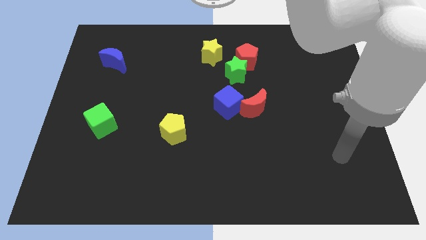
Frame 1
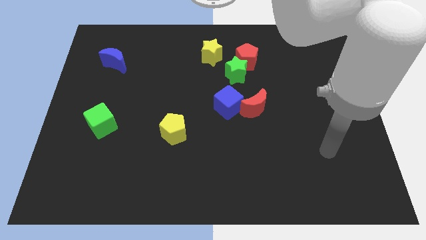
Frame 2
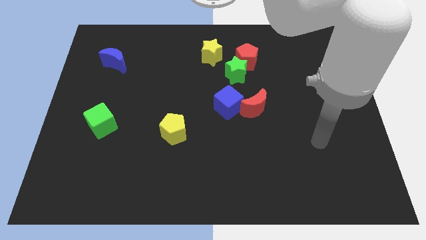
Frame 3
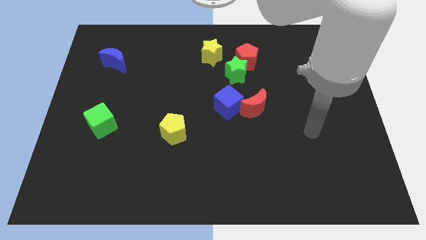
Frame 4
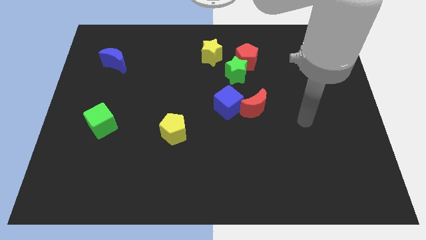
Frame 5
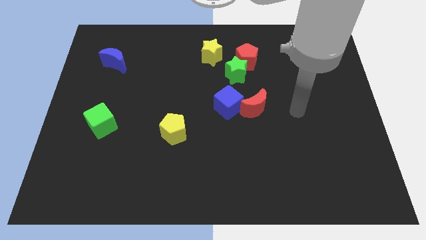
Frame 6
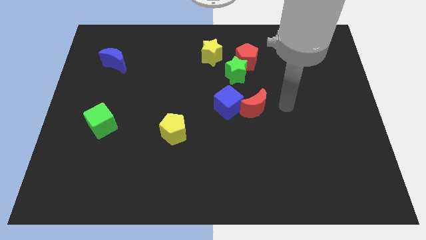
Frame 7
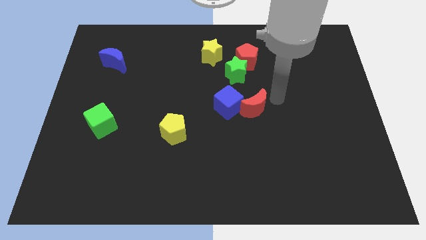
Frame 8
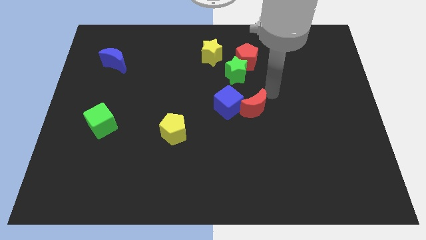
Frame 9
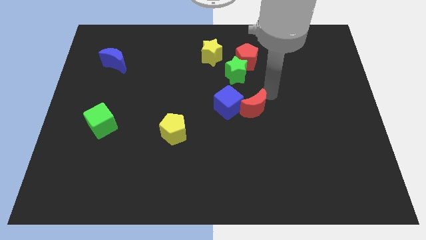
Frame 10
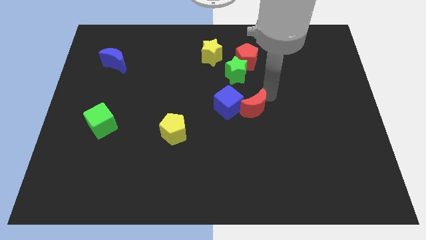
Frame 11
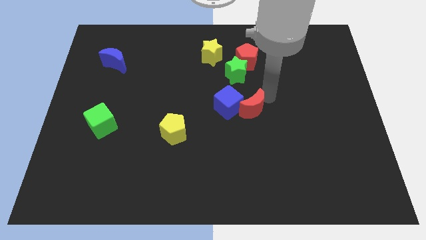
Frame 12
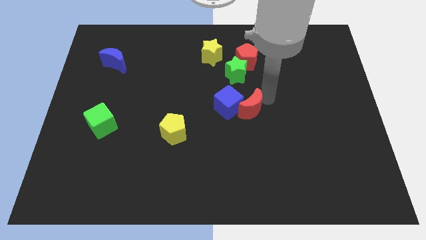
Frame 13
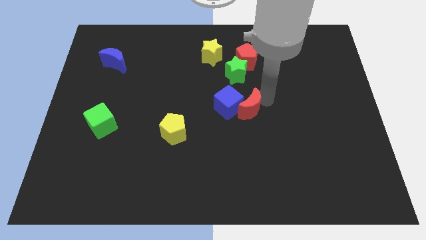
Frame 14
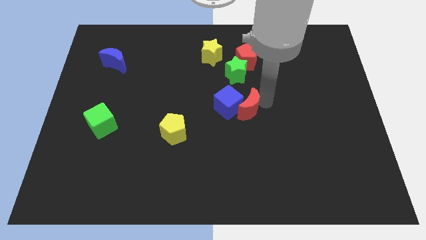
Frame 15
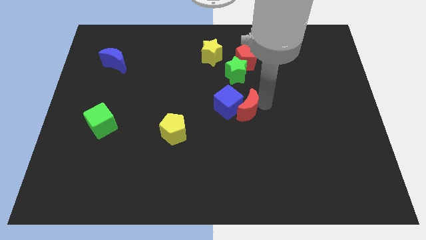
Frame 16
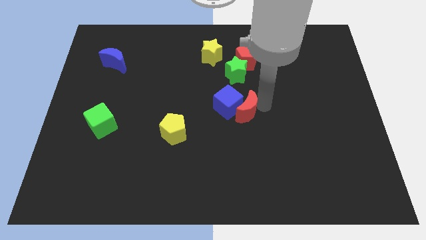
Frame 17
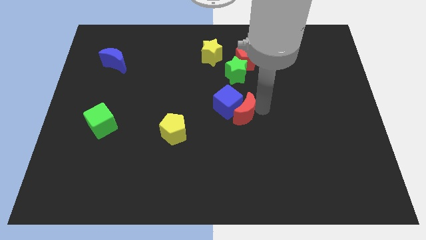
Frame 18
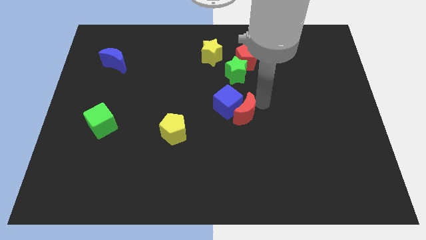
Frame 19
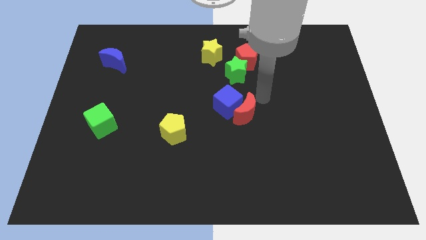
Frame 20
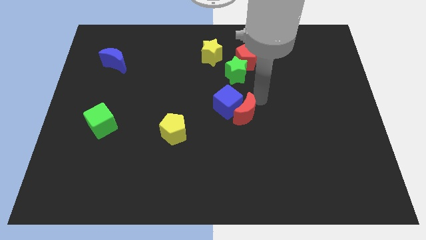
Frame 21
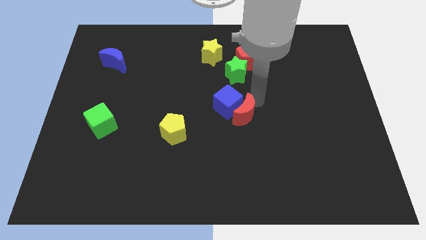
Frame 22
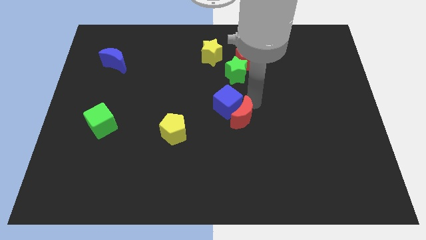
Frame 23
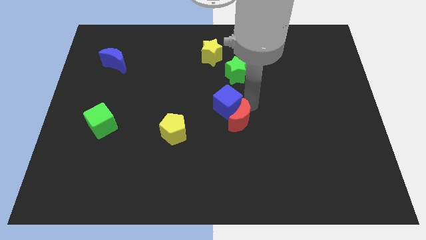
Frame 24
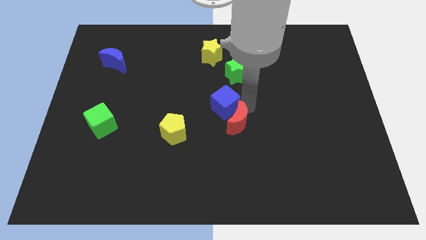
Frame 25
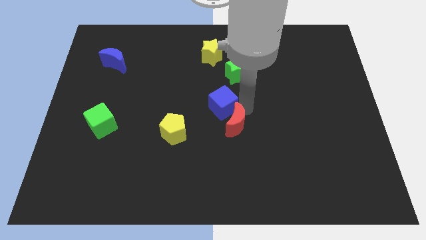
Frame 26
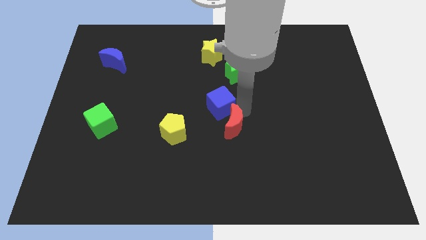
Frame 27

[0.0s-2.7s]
push the red moon somewhat down and then to the left

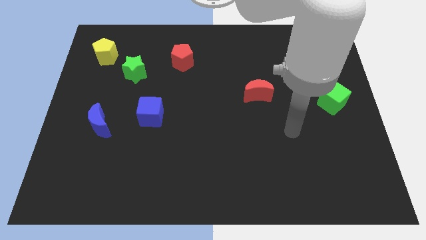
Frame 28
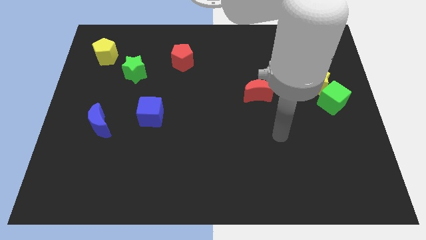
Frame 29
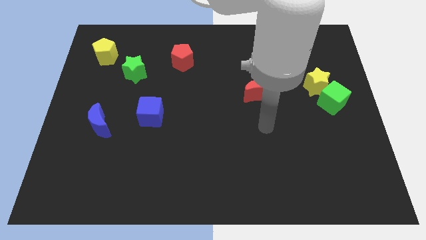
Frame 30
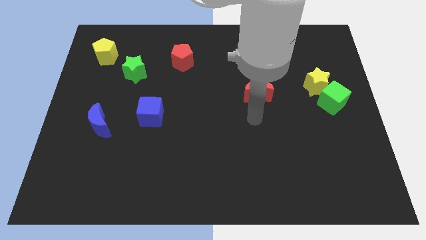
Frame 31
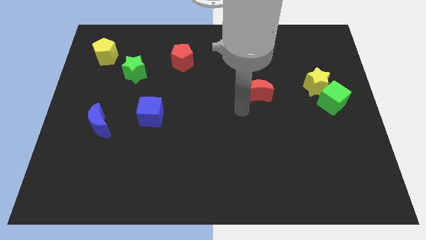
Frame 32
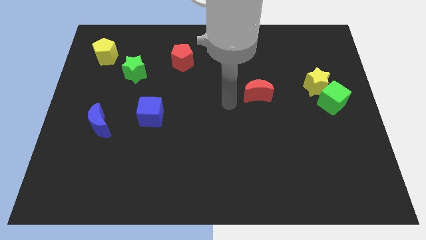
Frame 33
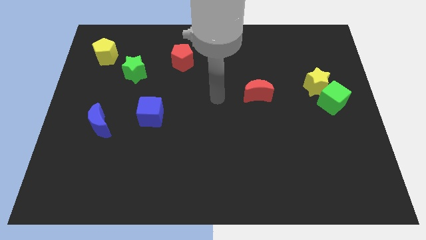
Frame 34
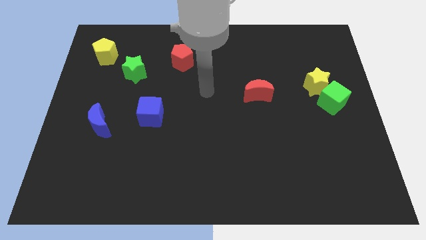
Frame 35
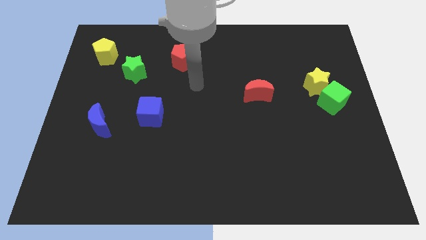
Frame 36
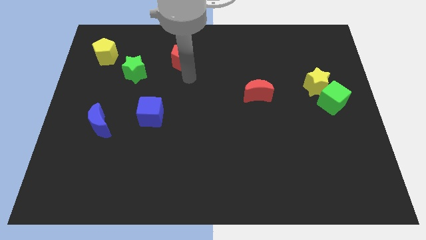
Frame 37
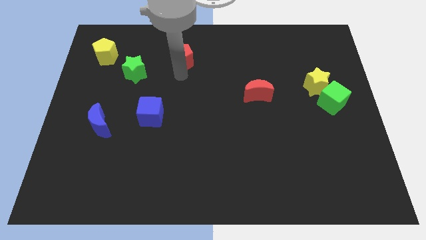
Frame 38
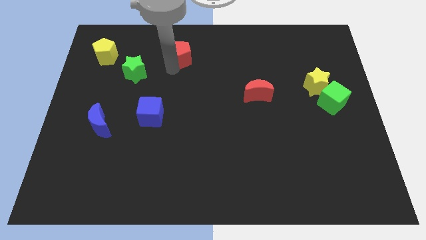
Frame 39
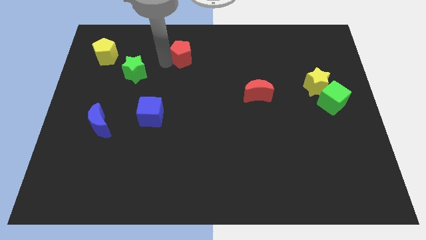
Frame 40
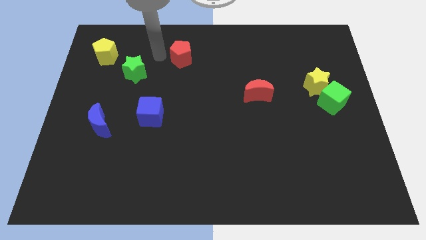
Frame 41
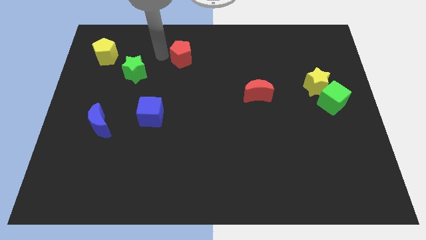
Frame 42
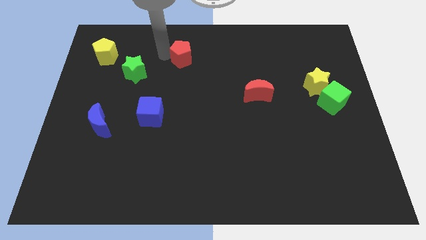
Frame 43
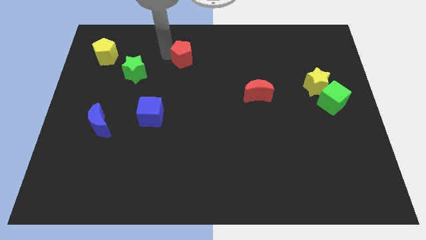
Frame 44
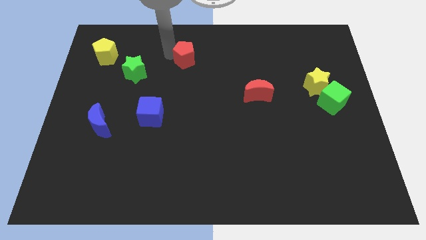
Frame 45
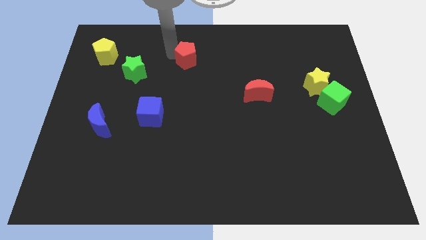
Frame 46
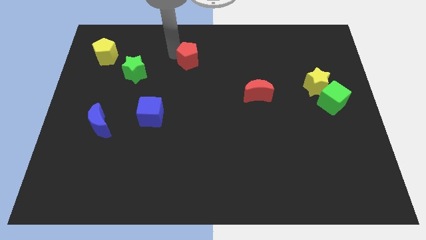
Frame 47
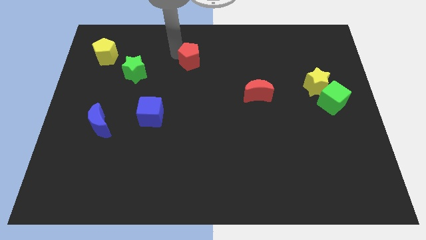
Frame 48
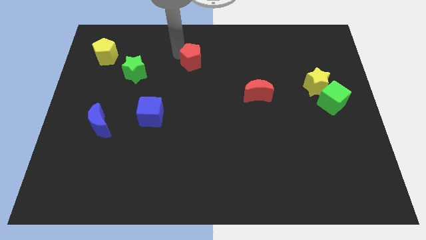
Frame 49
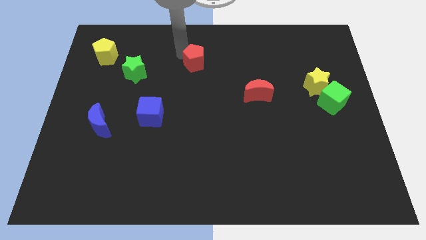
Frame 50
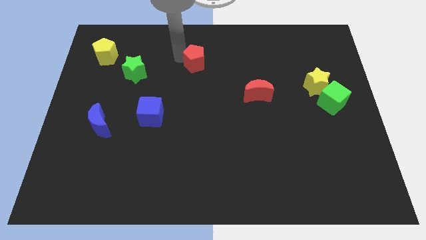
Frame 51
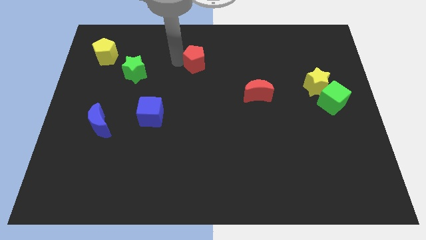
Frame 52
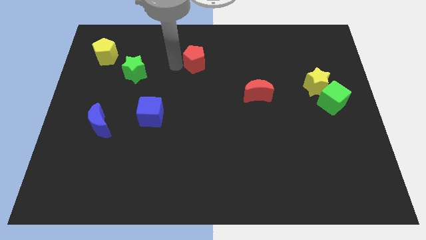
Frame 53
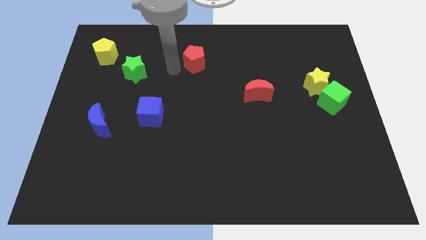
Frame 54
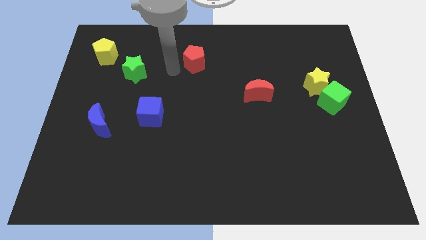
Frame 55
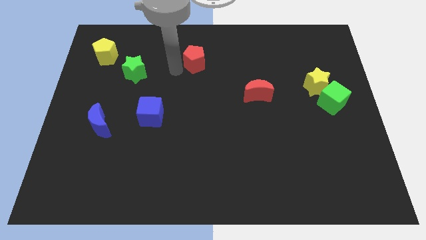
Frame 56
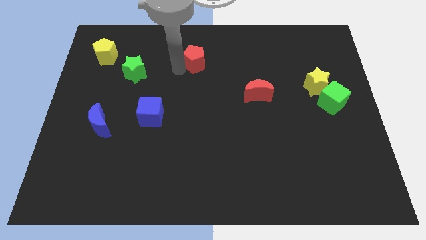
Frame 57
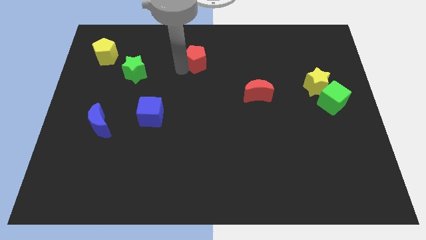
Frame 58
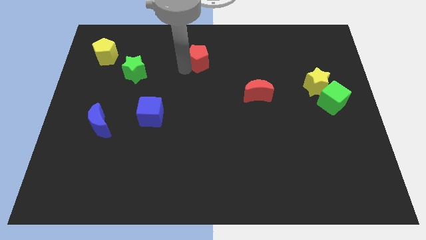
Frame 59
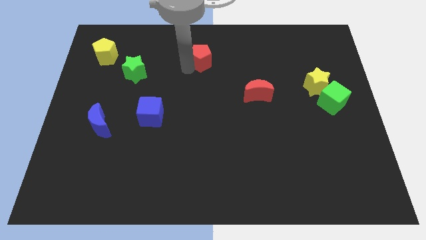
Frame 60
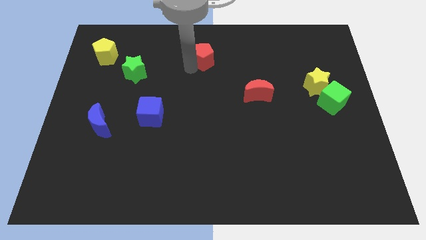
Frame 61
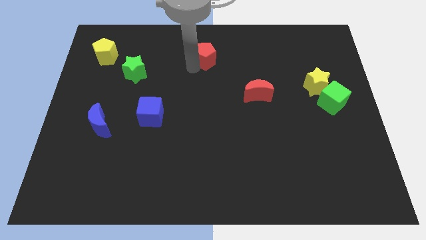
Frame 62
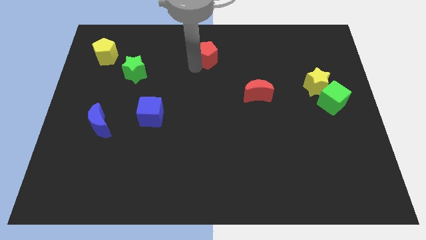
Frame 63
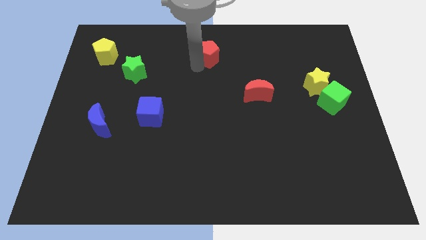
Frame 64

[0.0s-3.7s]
slide the red pentagon right a bit

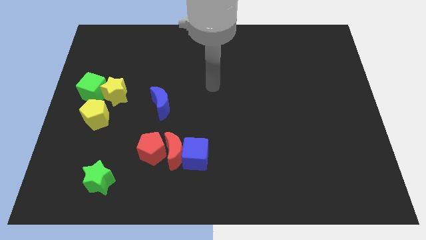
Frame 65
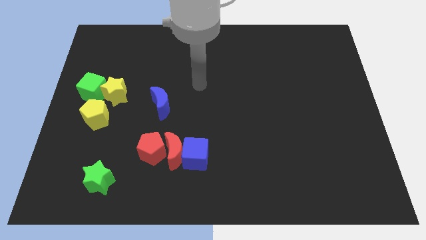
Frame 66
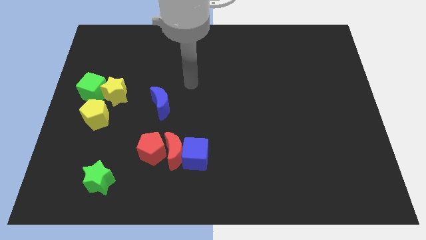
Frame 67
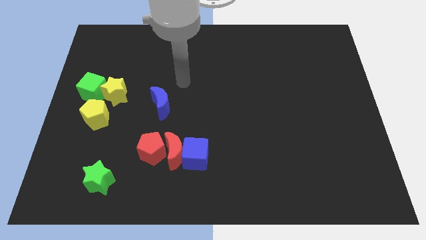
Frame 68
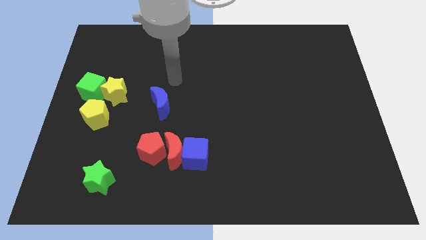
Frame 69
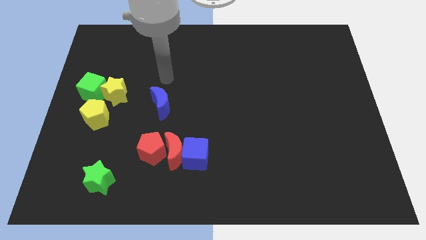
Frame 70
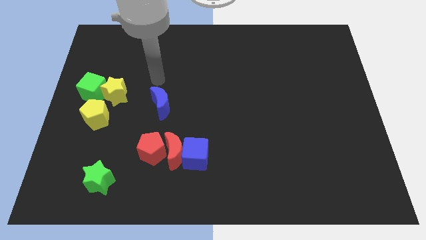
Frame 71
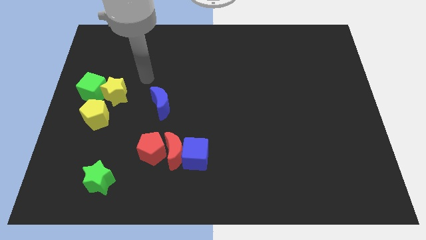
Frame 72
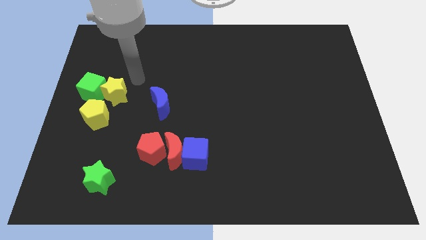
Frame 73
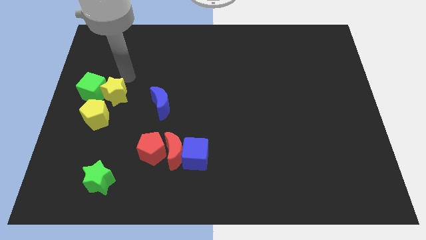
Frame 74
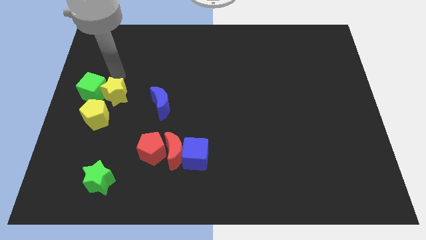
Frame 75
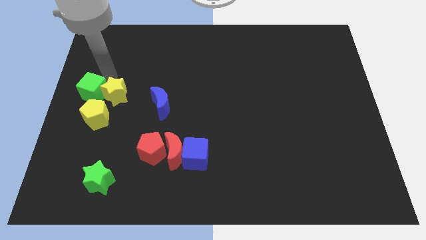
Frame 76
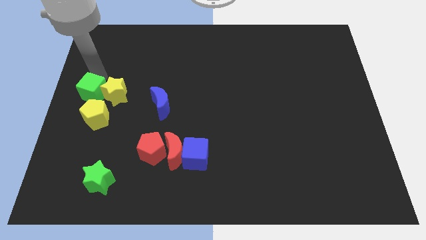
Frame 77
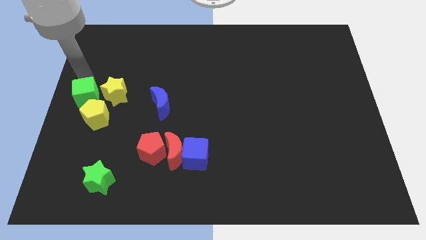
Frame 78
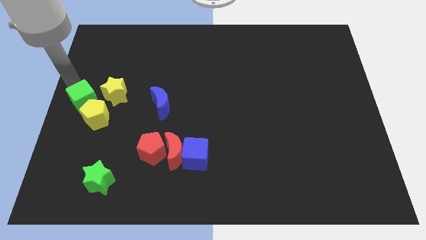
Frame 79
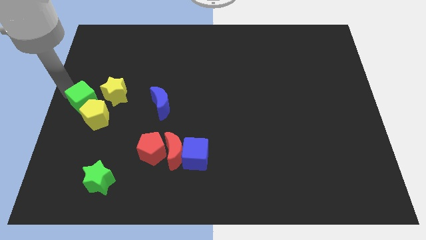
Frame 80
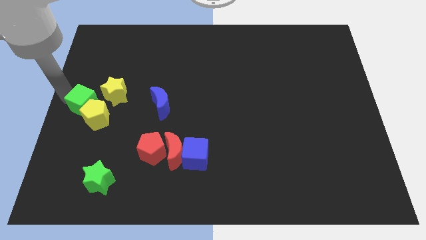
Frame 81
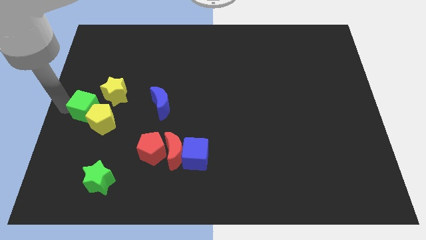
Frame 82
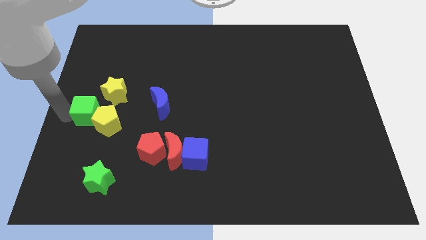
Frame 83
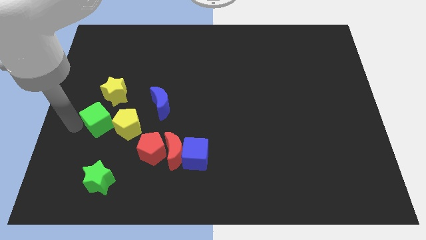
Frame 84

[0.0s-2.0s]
slightly slide the yellow pentagon to the right
